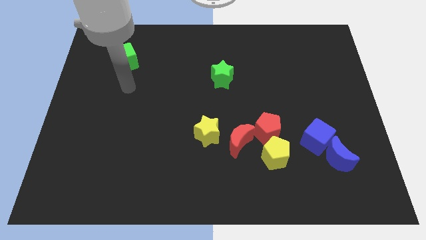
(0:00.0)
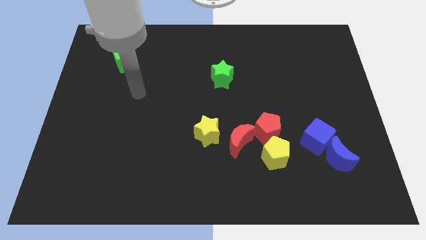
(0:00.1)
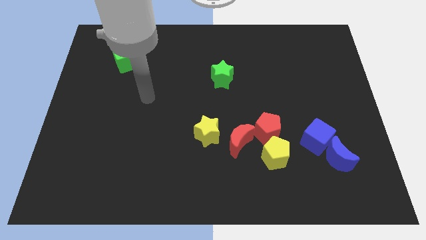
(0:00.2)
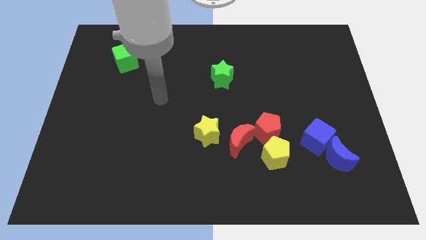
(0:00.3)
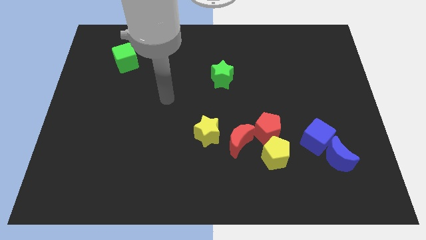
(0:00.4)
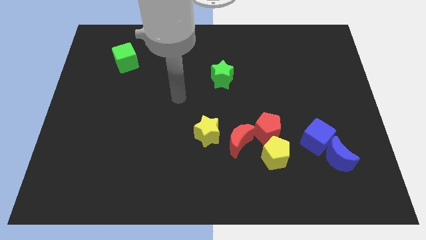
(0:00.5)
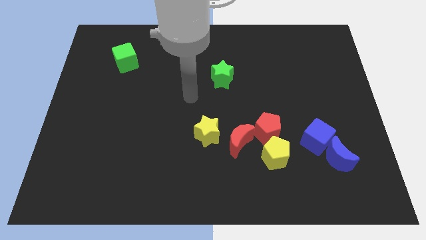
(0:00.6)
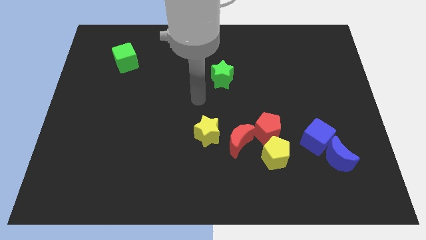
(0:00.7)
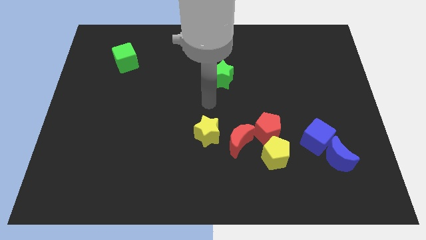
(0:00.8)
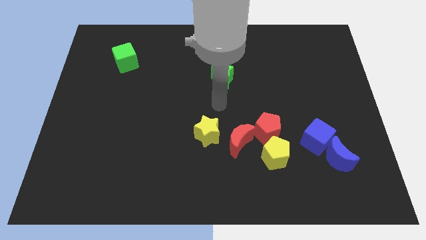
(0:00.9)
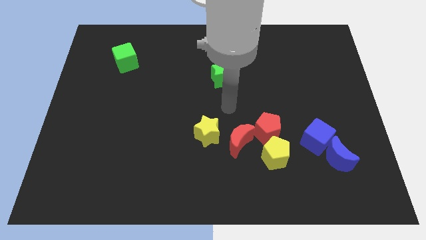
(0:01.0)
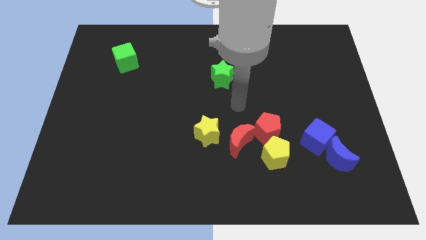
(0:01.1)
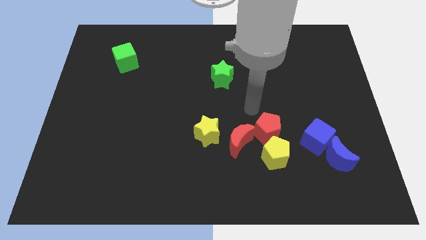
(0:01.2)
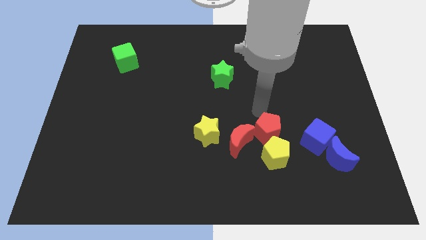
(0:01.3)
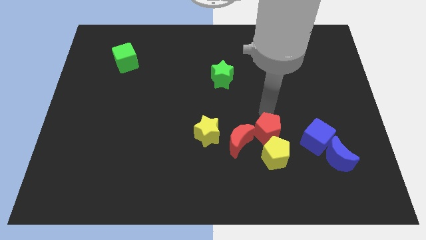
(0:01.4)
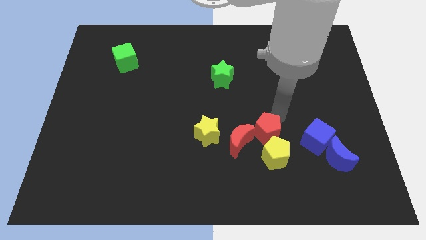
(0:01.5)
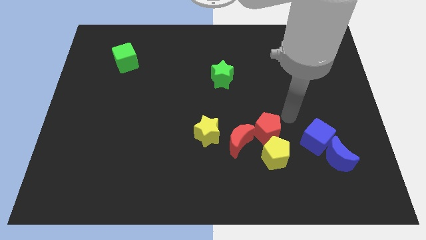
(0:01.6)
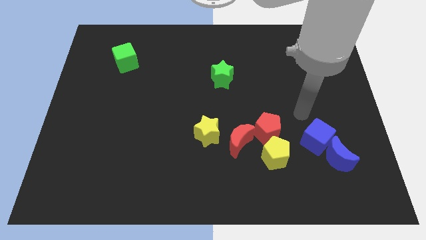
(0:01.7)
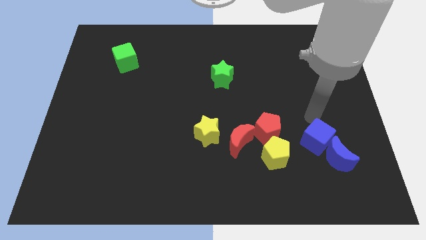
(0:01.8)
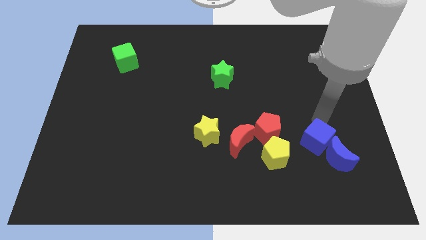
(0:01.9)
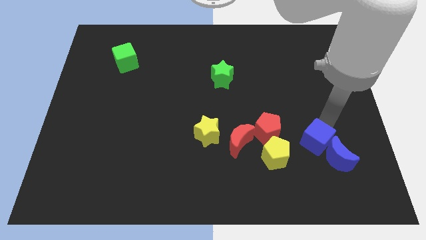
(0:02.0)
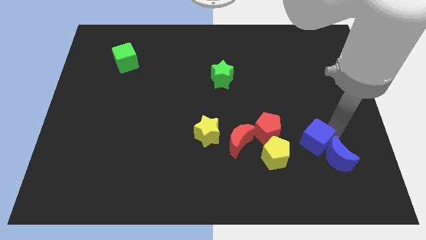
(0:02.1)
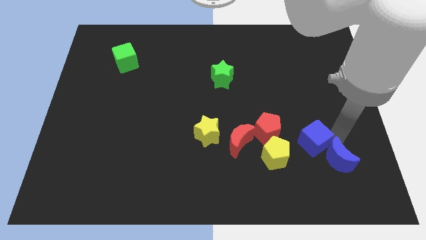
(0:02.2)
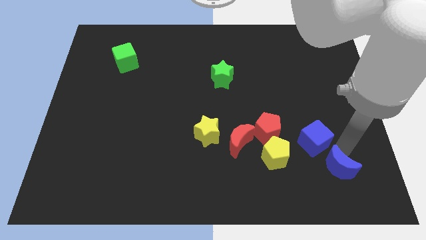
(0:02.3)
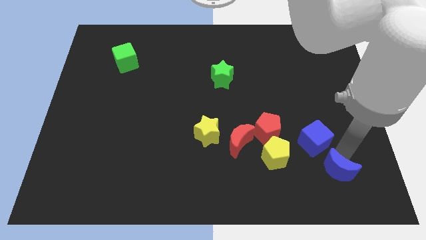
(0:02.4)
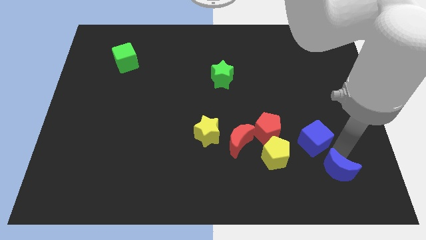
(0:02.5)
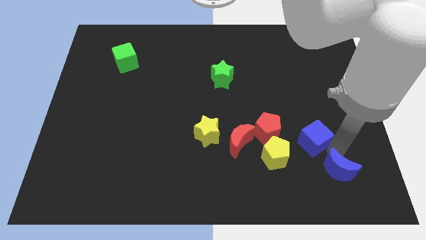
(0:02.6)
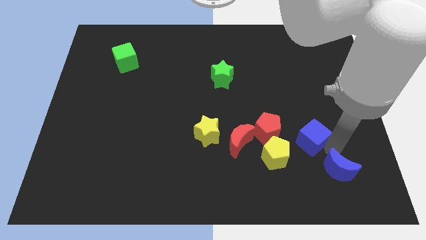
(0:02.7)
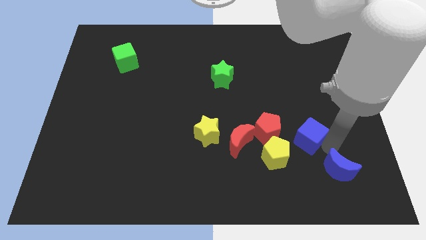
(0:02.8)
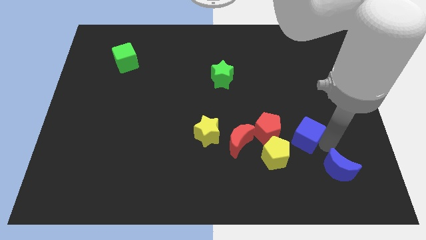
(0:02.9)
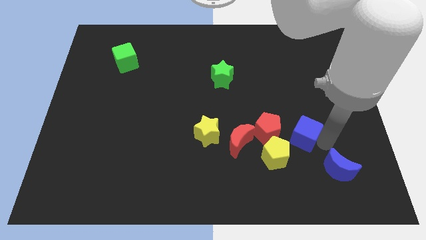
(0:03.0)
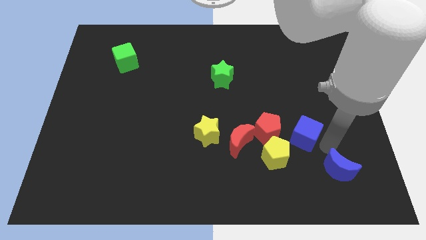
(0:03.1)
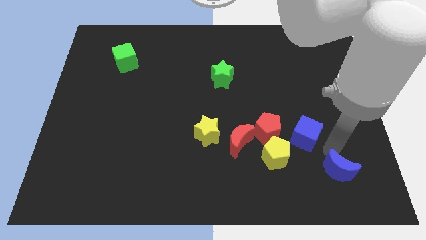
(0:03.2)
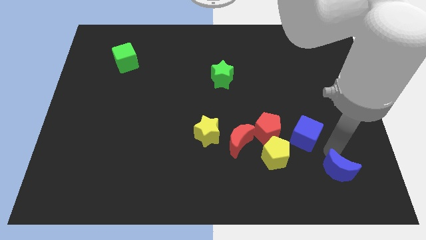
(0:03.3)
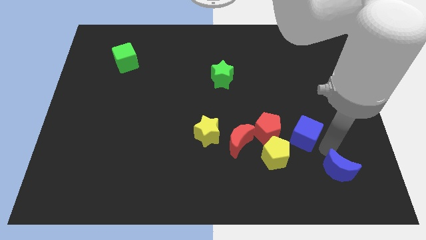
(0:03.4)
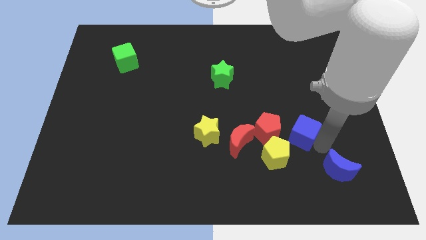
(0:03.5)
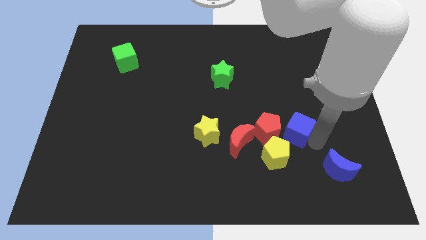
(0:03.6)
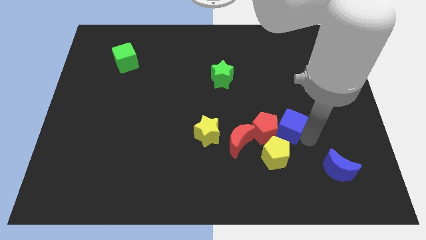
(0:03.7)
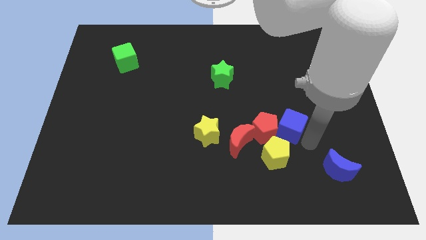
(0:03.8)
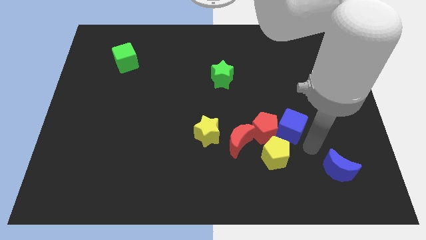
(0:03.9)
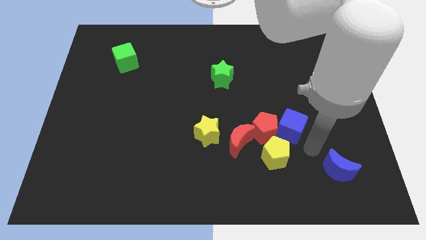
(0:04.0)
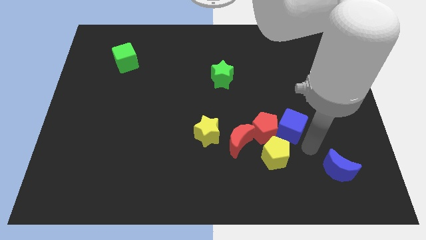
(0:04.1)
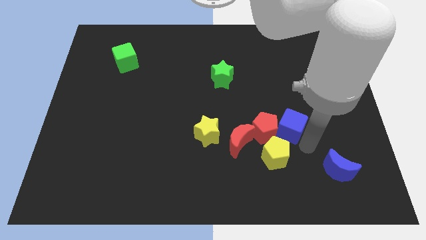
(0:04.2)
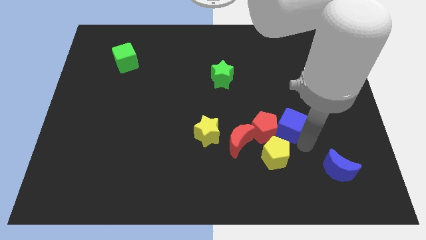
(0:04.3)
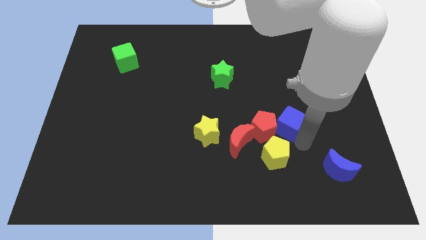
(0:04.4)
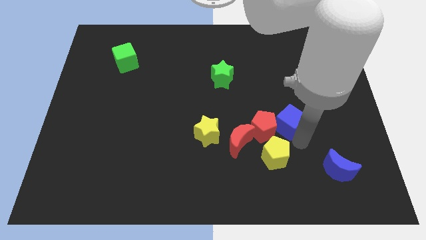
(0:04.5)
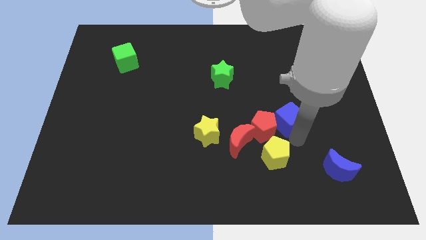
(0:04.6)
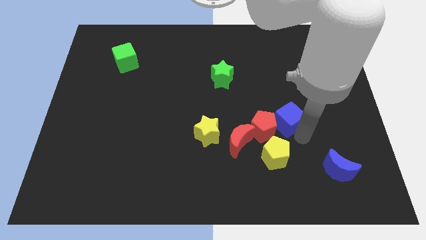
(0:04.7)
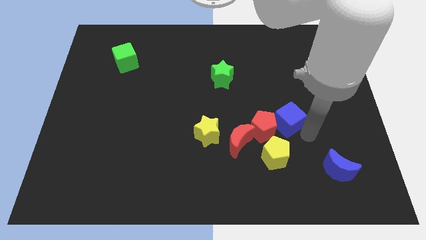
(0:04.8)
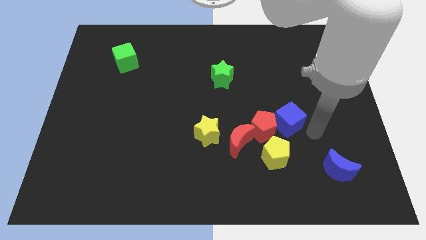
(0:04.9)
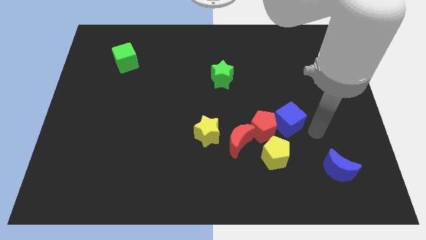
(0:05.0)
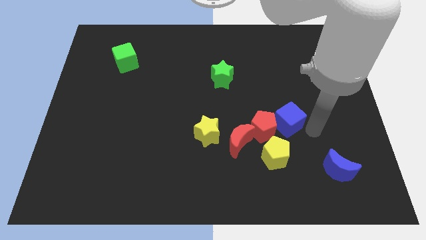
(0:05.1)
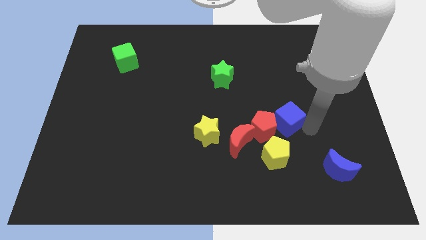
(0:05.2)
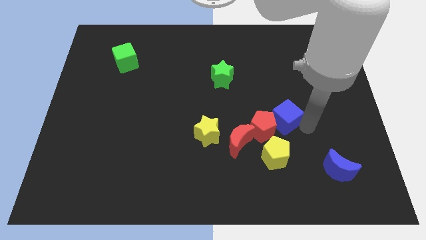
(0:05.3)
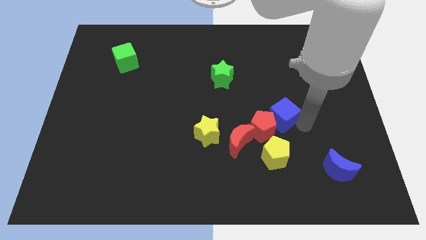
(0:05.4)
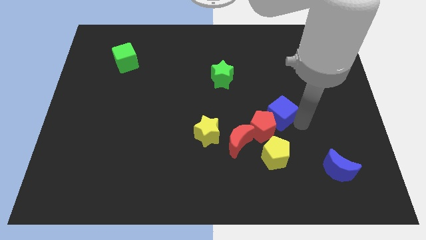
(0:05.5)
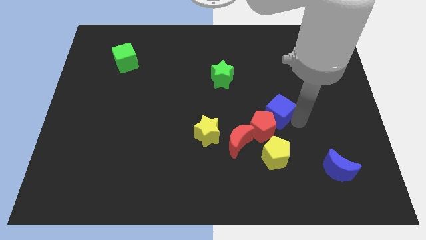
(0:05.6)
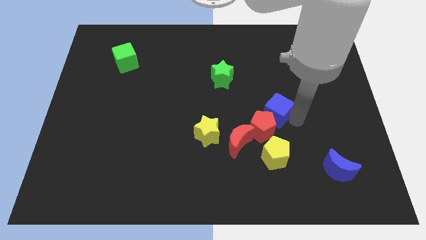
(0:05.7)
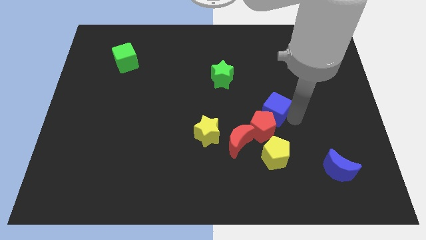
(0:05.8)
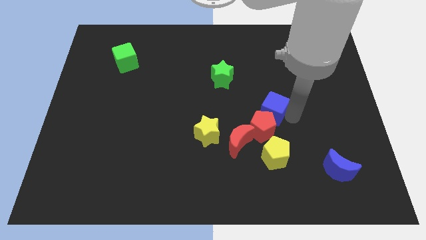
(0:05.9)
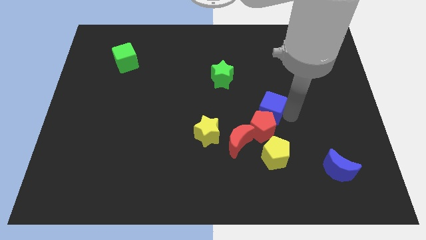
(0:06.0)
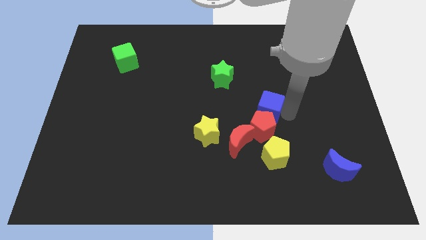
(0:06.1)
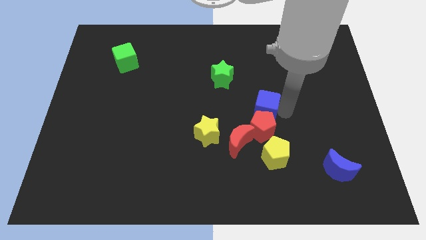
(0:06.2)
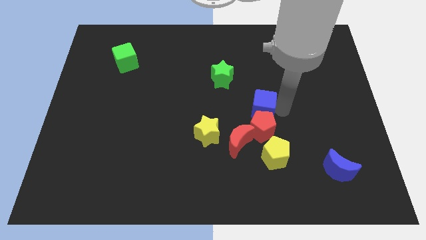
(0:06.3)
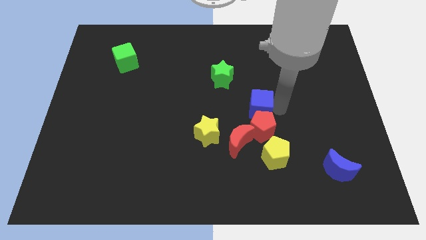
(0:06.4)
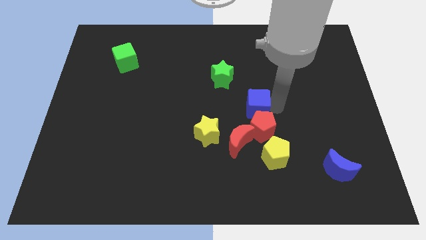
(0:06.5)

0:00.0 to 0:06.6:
move the blue cube to the top of the red moon
